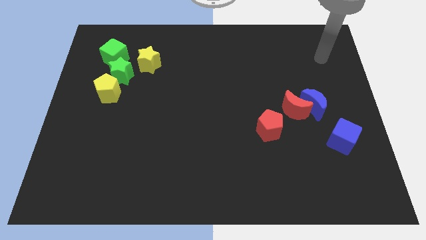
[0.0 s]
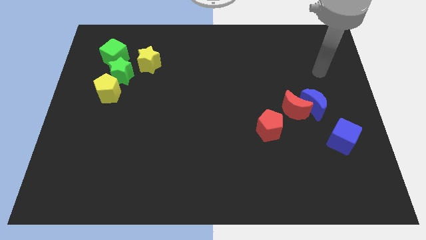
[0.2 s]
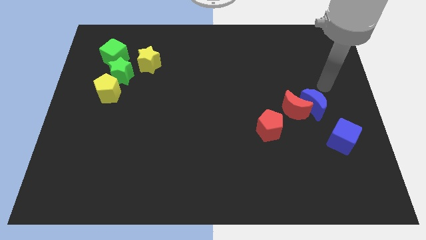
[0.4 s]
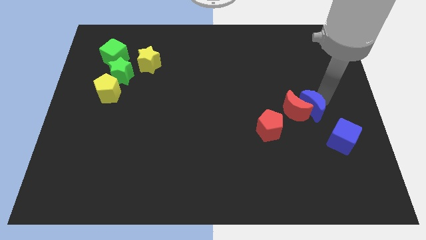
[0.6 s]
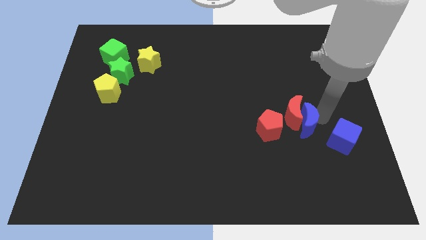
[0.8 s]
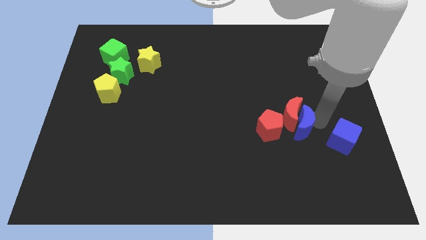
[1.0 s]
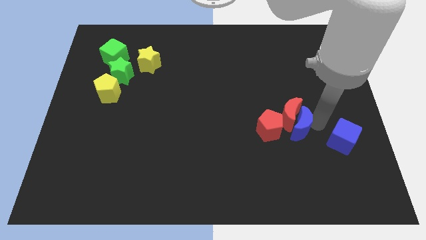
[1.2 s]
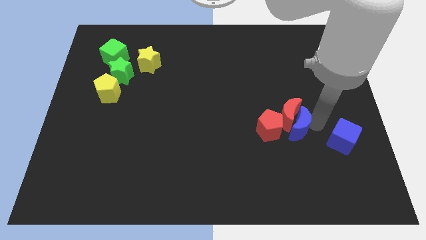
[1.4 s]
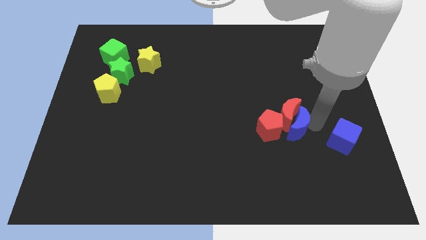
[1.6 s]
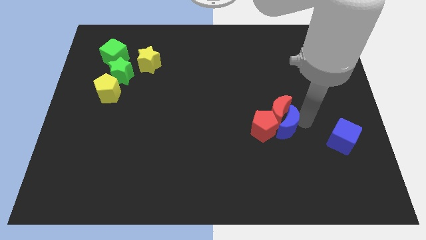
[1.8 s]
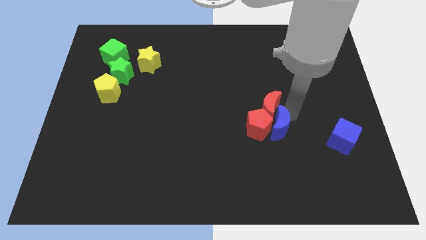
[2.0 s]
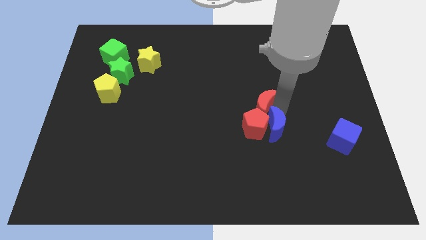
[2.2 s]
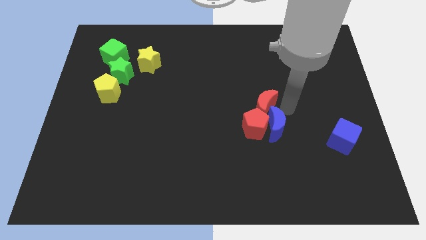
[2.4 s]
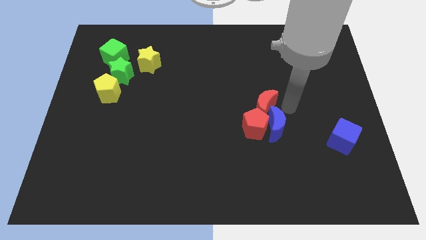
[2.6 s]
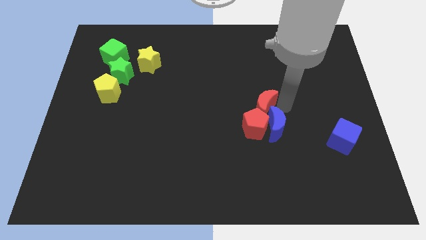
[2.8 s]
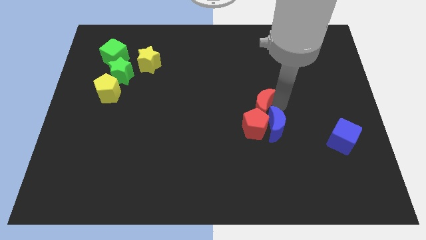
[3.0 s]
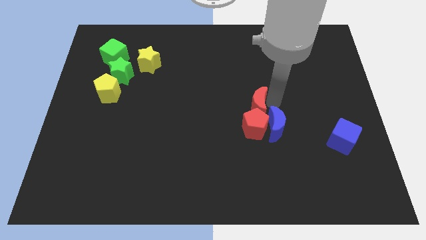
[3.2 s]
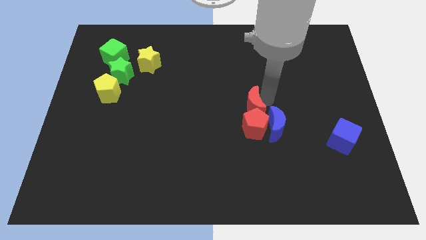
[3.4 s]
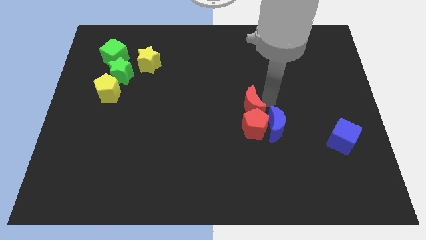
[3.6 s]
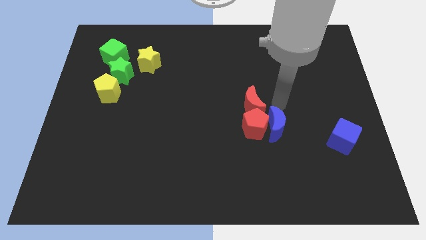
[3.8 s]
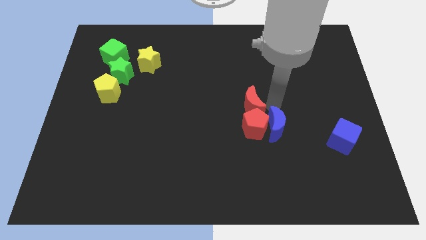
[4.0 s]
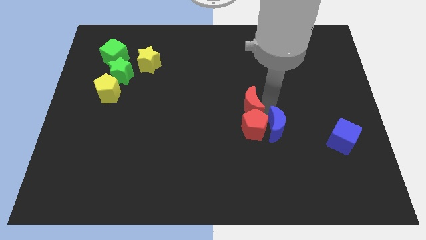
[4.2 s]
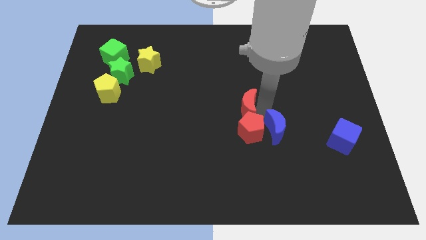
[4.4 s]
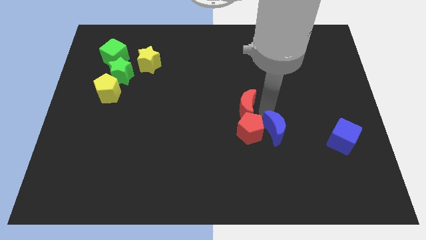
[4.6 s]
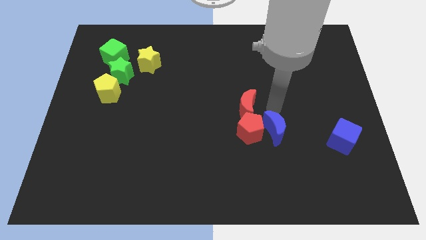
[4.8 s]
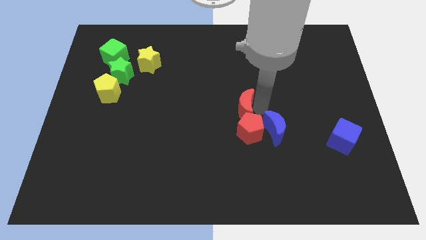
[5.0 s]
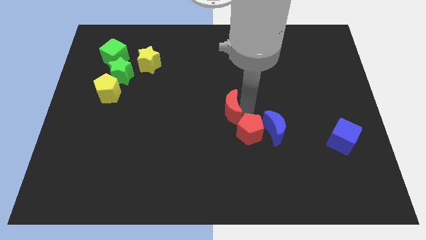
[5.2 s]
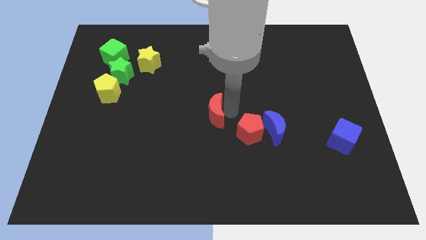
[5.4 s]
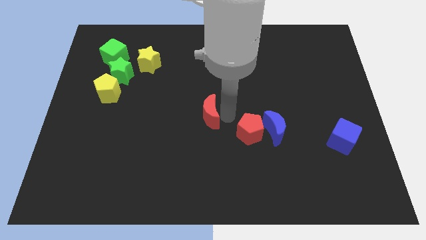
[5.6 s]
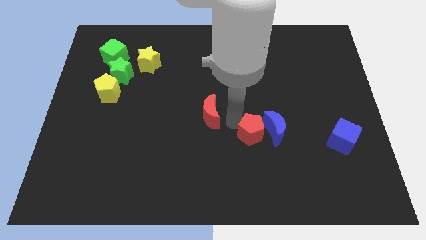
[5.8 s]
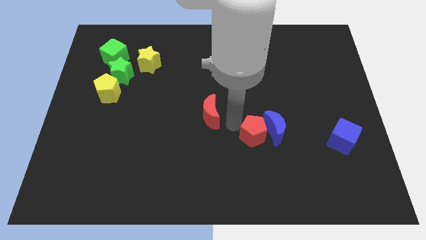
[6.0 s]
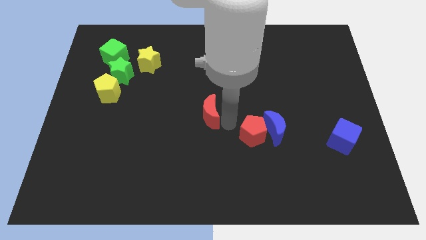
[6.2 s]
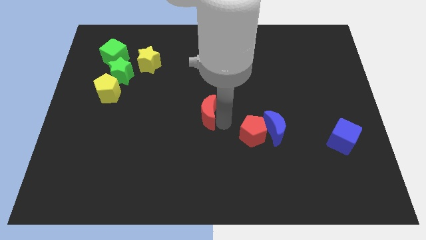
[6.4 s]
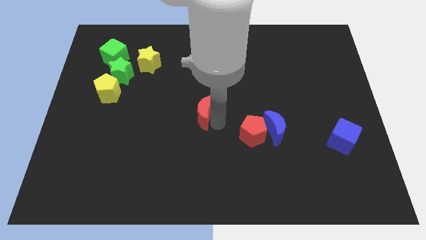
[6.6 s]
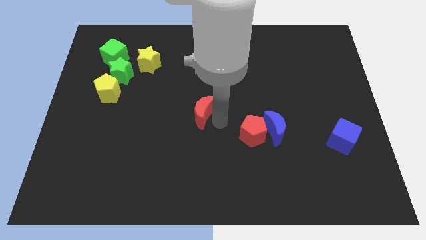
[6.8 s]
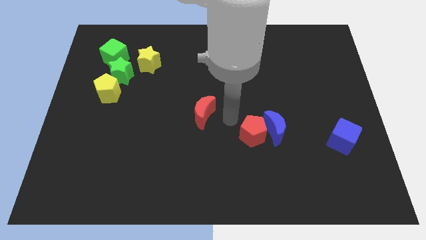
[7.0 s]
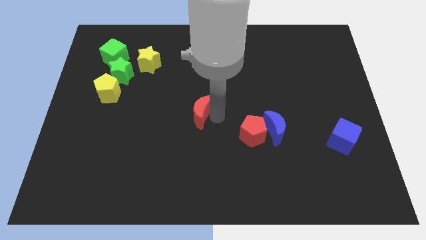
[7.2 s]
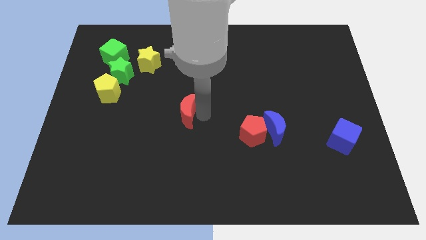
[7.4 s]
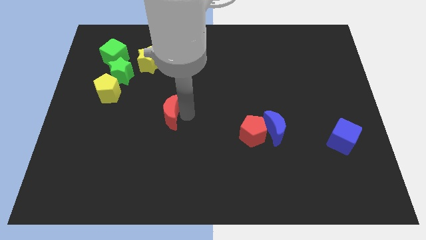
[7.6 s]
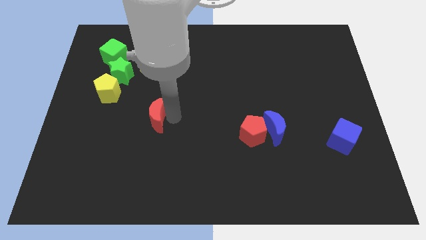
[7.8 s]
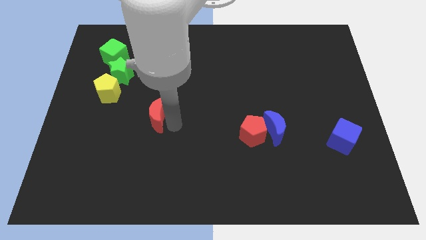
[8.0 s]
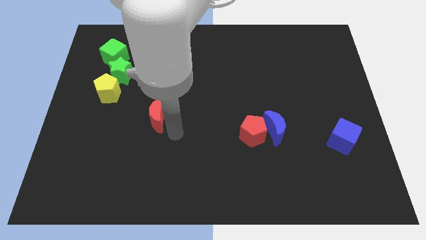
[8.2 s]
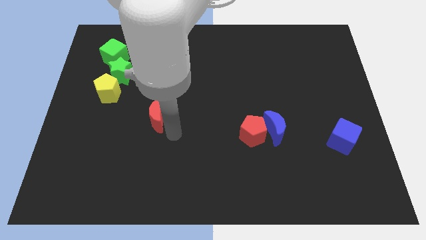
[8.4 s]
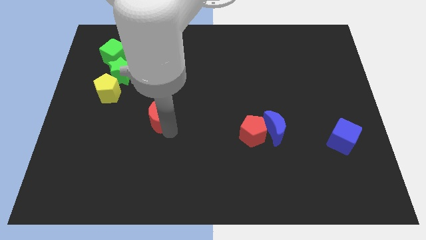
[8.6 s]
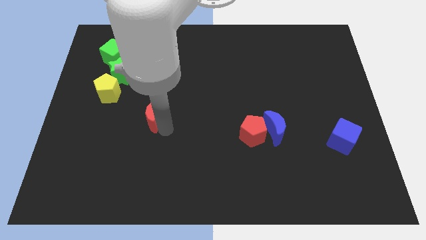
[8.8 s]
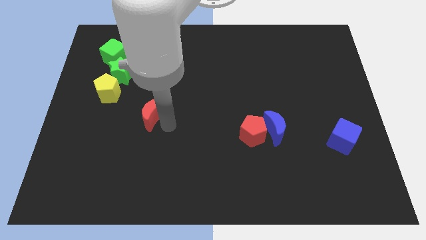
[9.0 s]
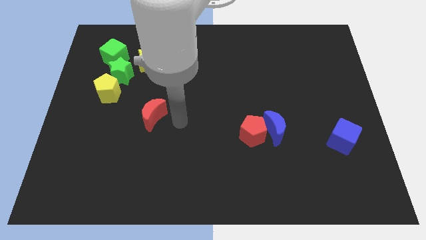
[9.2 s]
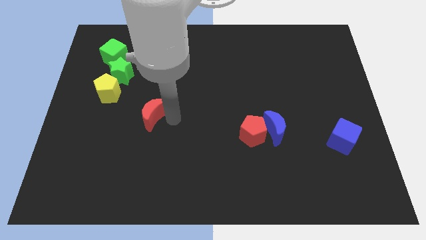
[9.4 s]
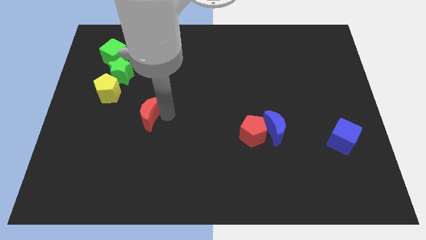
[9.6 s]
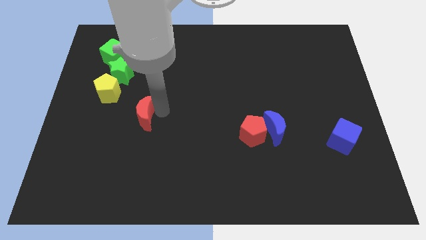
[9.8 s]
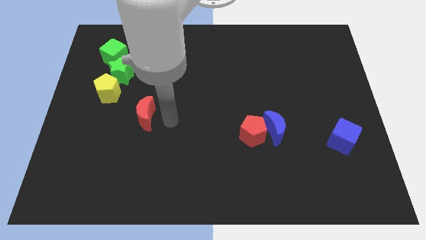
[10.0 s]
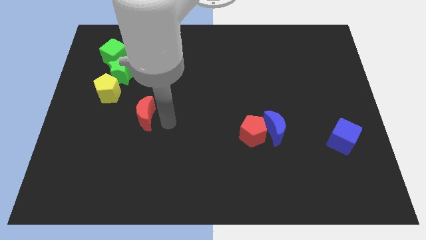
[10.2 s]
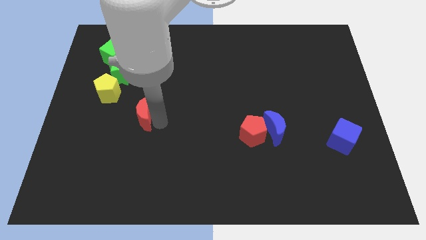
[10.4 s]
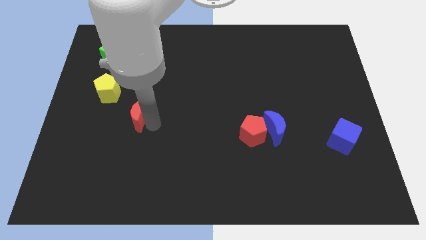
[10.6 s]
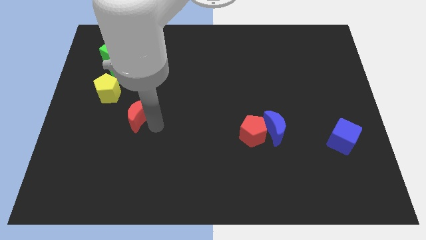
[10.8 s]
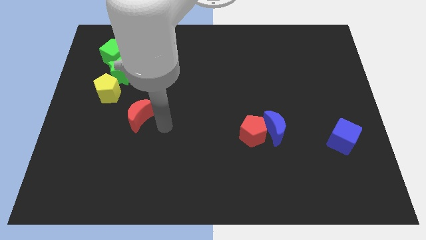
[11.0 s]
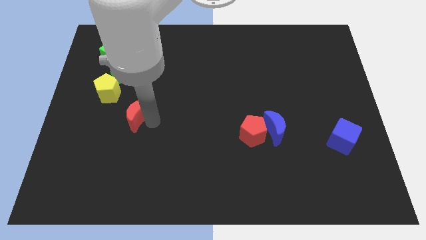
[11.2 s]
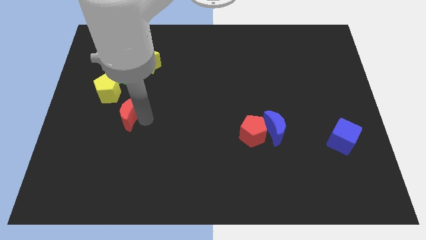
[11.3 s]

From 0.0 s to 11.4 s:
put the red moon to the bottom side of the green star

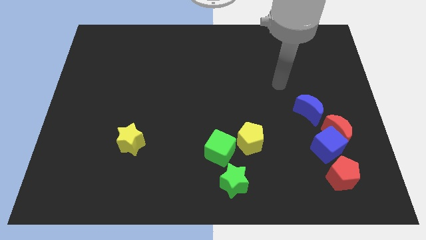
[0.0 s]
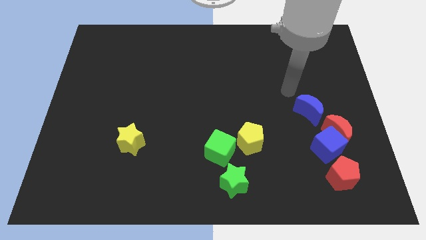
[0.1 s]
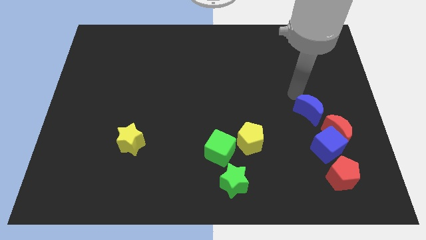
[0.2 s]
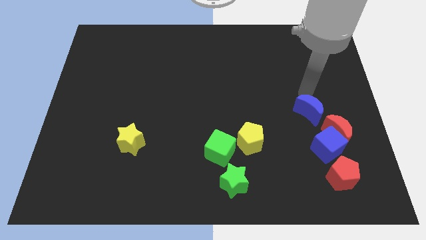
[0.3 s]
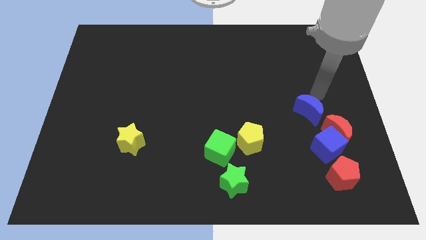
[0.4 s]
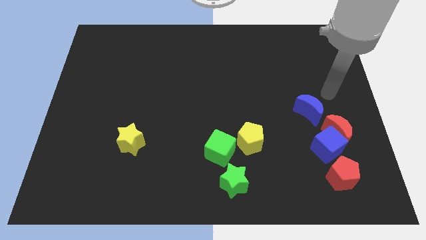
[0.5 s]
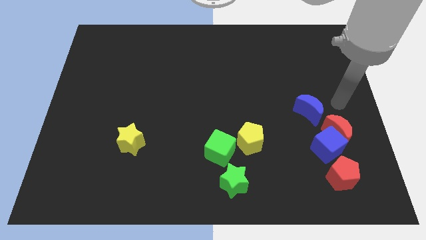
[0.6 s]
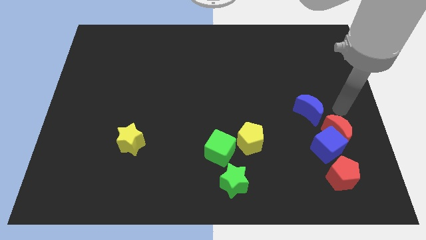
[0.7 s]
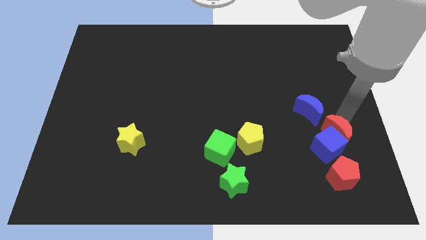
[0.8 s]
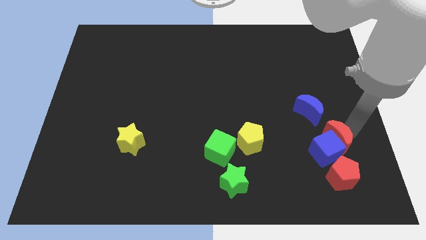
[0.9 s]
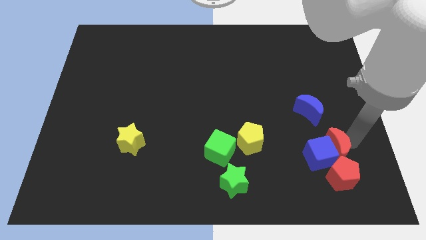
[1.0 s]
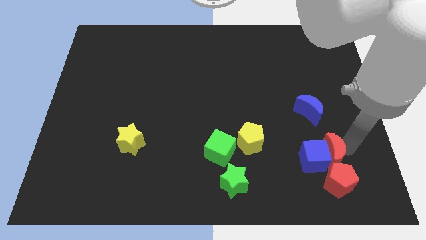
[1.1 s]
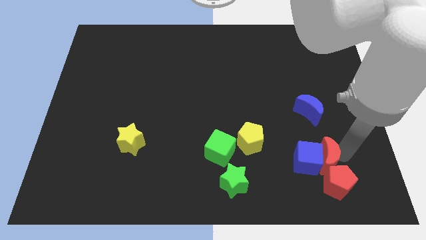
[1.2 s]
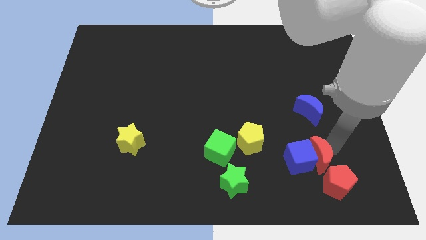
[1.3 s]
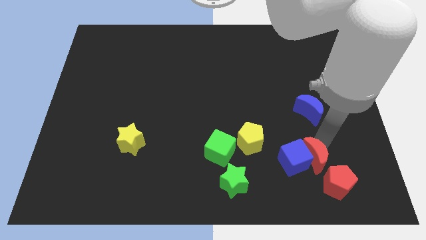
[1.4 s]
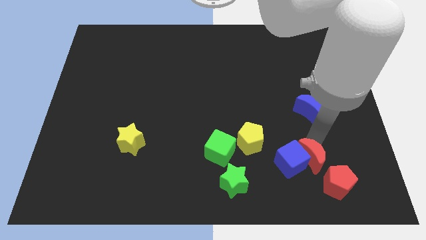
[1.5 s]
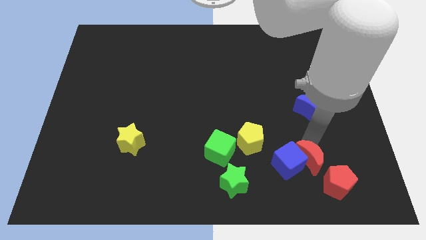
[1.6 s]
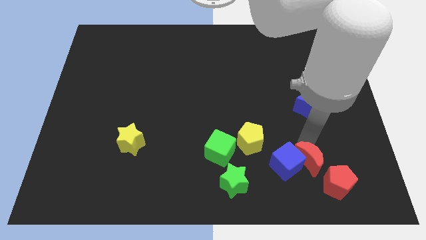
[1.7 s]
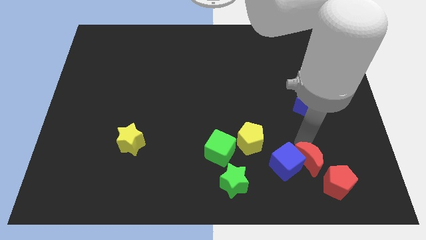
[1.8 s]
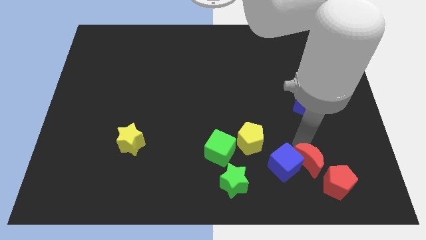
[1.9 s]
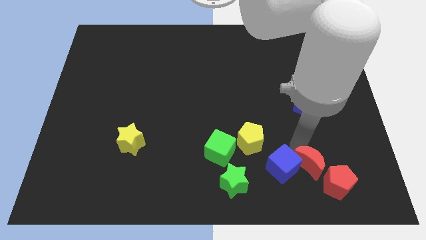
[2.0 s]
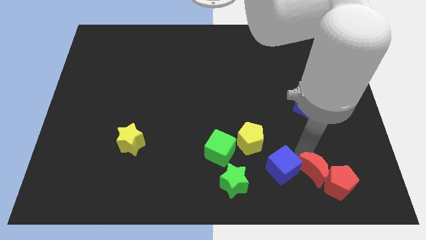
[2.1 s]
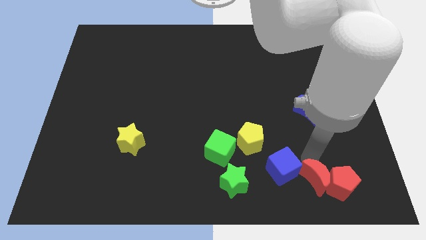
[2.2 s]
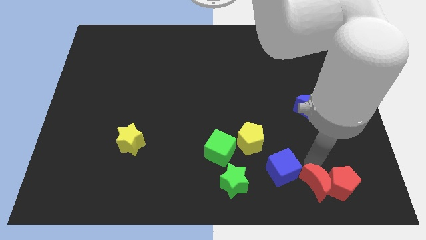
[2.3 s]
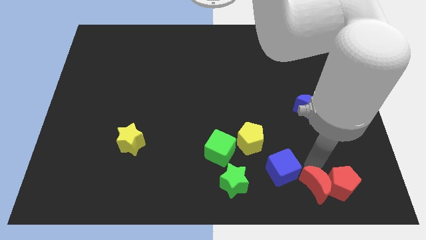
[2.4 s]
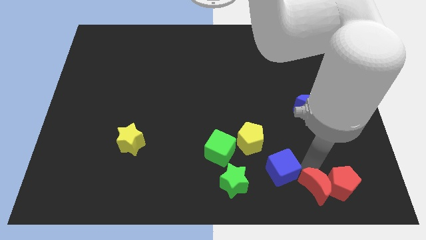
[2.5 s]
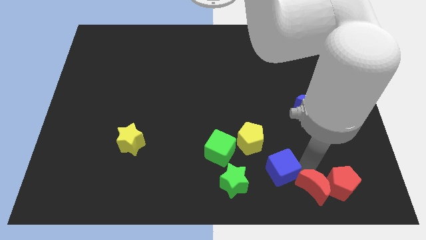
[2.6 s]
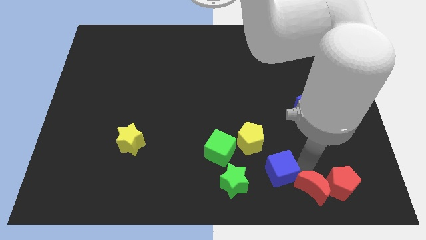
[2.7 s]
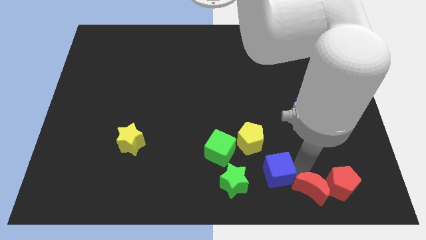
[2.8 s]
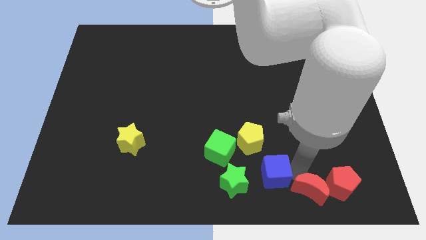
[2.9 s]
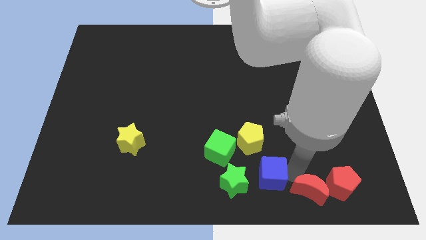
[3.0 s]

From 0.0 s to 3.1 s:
push the blue cube to the bottom right of the green cube
